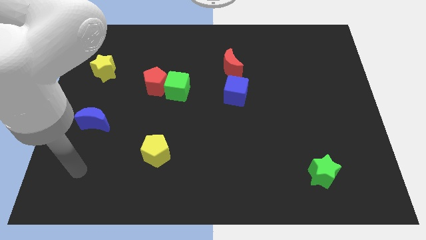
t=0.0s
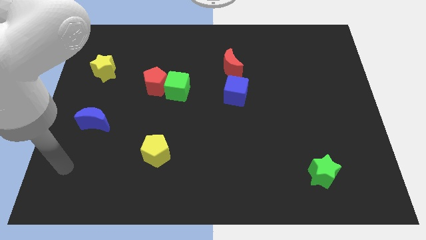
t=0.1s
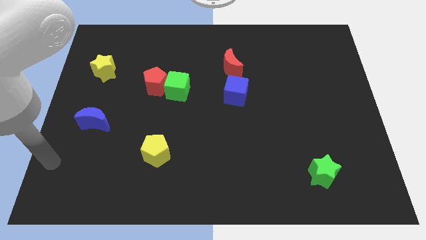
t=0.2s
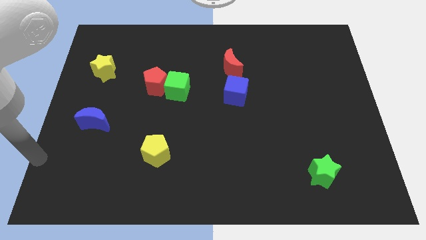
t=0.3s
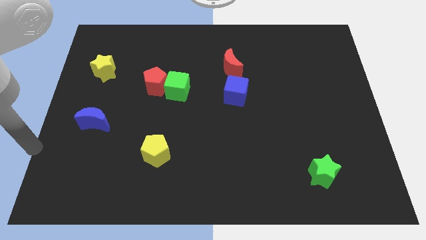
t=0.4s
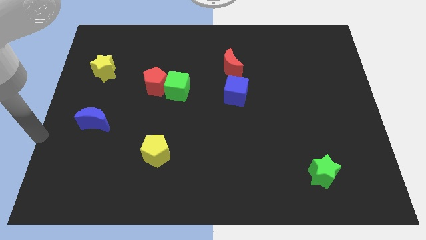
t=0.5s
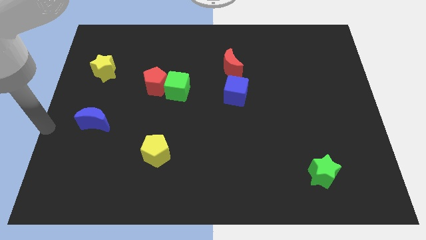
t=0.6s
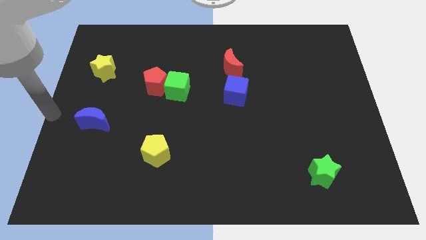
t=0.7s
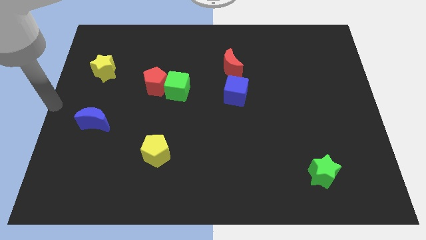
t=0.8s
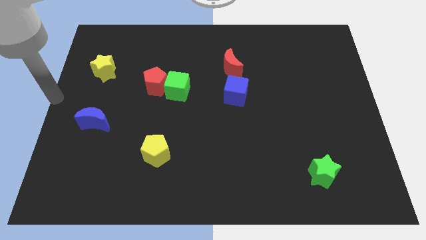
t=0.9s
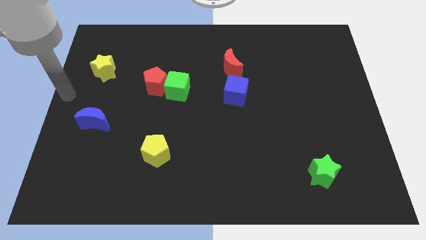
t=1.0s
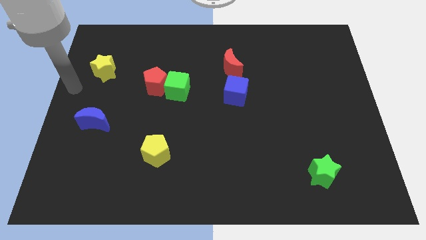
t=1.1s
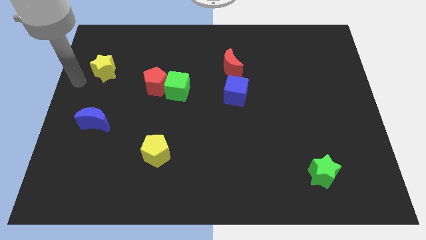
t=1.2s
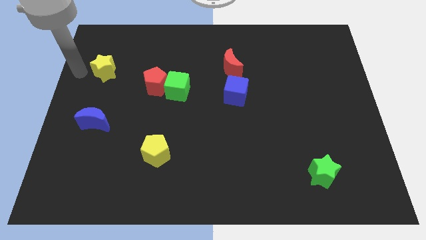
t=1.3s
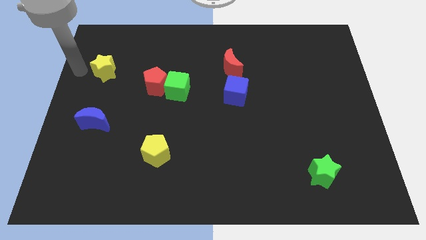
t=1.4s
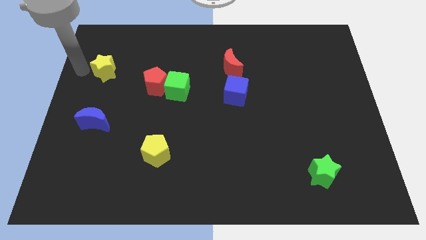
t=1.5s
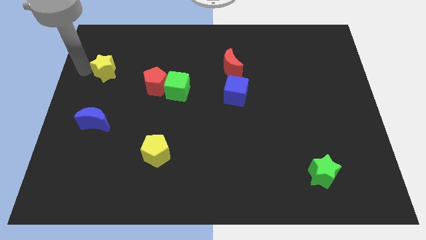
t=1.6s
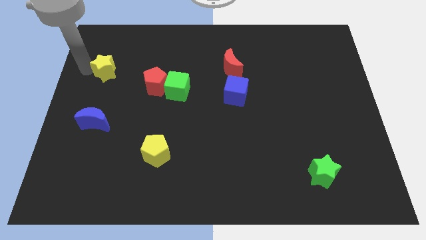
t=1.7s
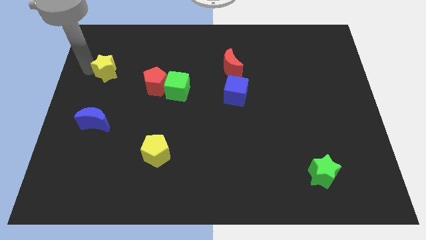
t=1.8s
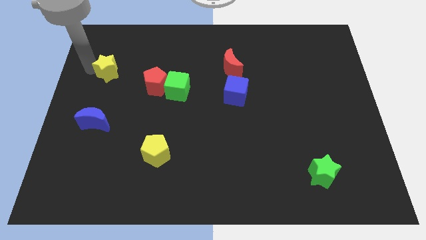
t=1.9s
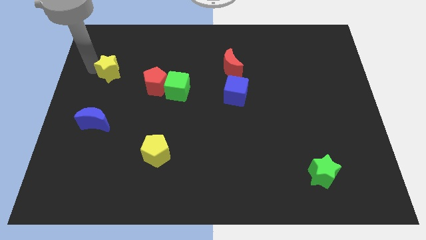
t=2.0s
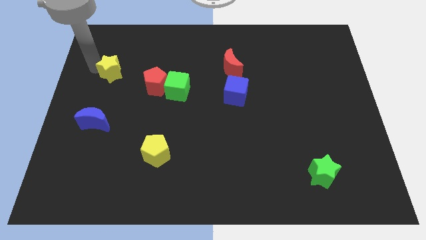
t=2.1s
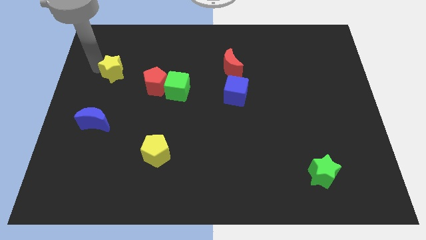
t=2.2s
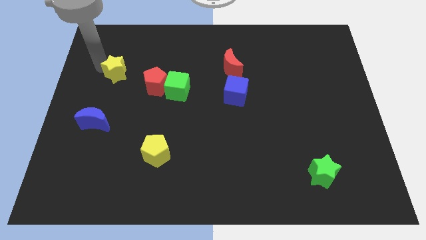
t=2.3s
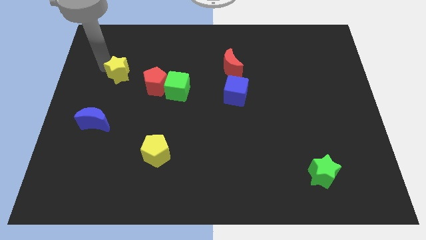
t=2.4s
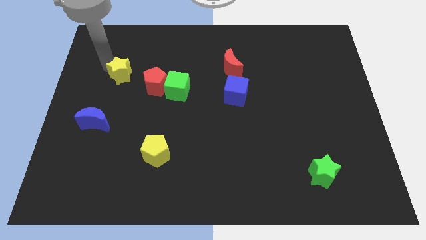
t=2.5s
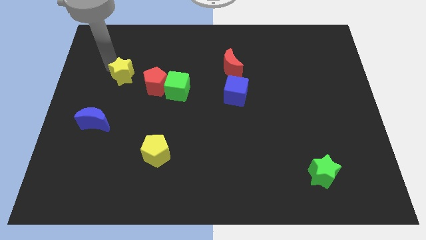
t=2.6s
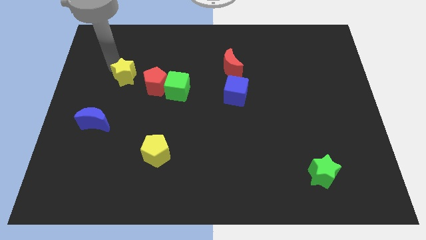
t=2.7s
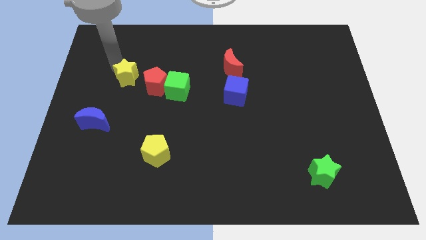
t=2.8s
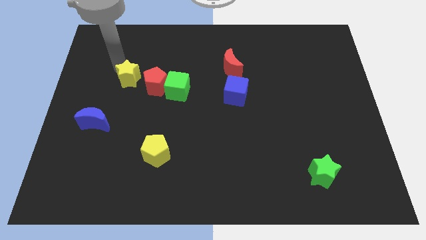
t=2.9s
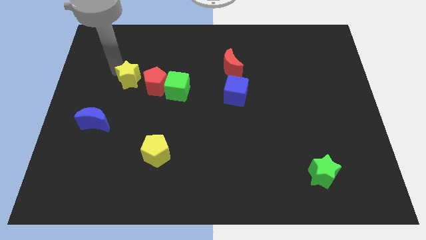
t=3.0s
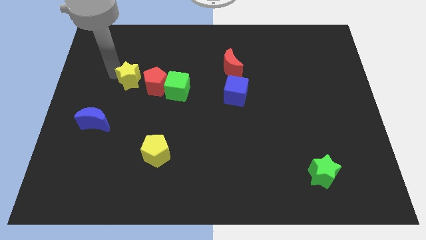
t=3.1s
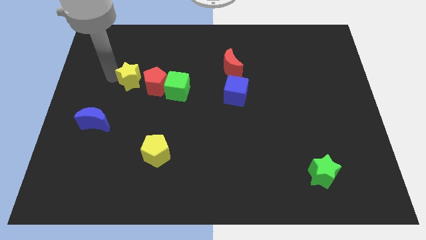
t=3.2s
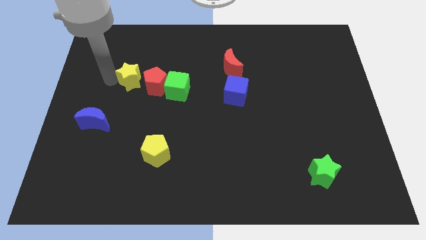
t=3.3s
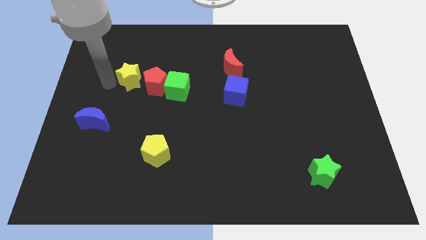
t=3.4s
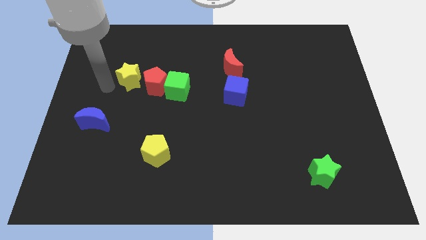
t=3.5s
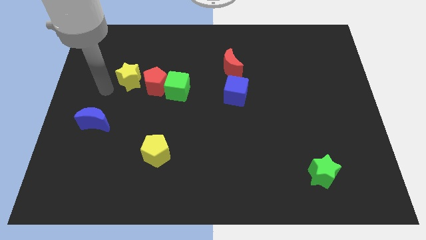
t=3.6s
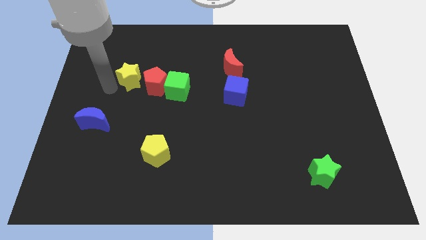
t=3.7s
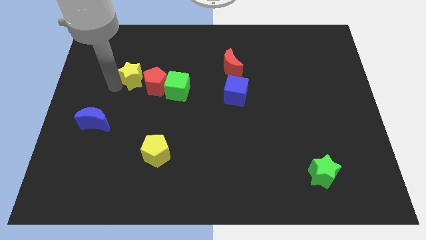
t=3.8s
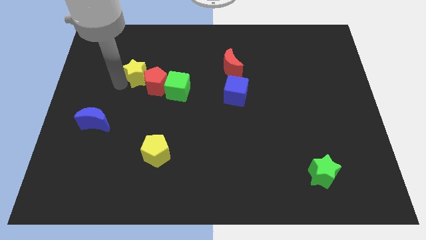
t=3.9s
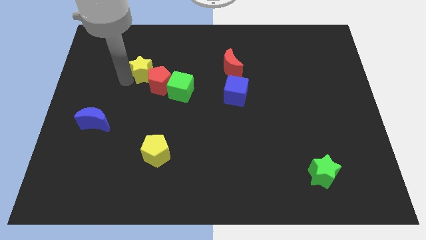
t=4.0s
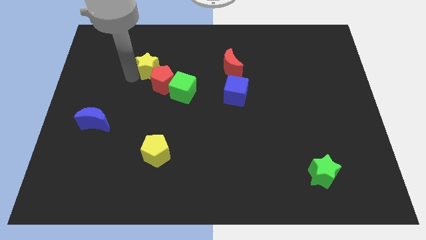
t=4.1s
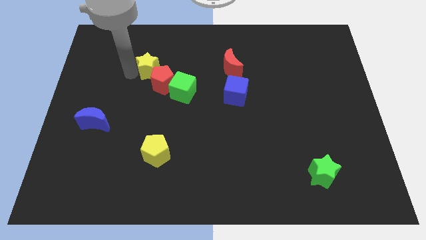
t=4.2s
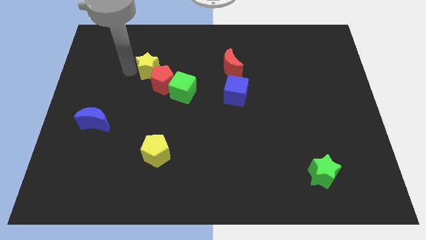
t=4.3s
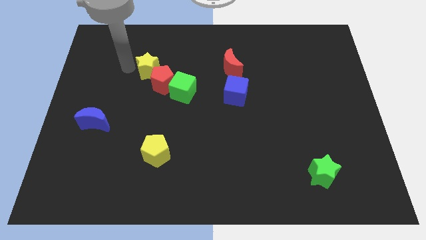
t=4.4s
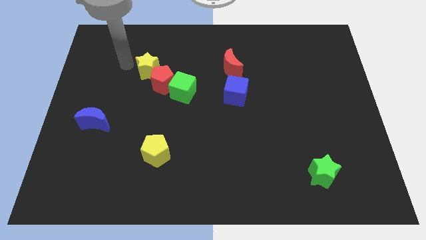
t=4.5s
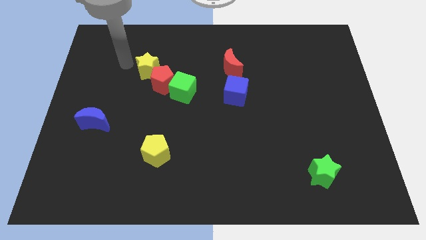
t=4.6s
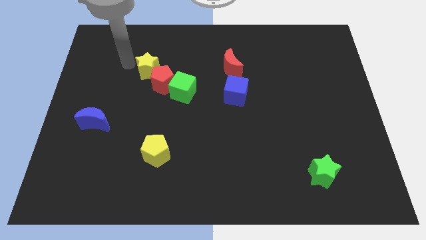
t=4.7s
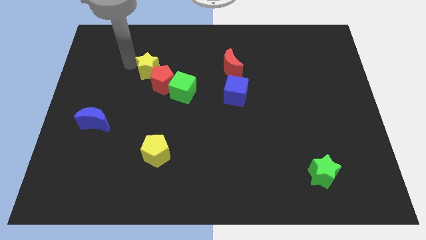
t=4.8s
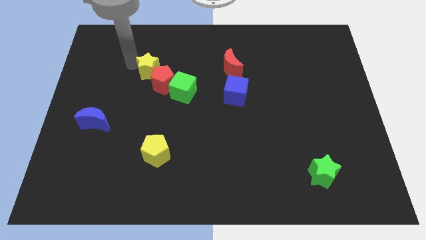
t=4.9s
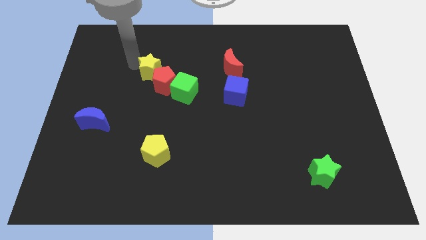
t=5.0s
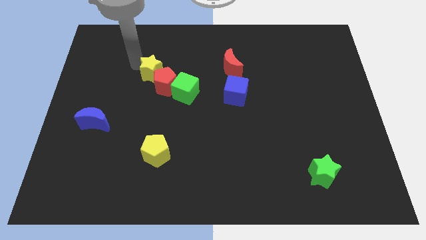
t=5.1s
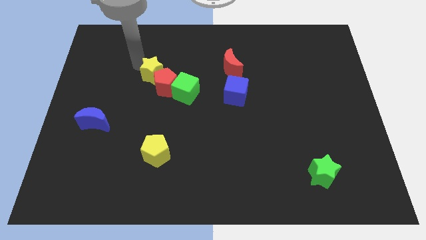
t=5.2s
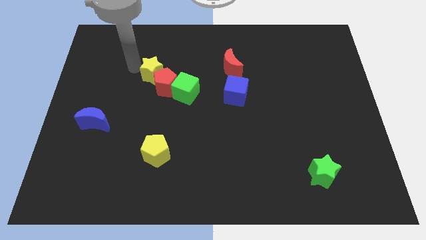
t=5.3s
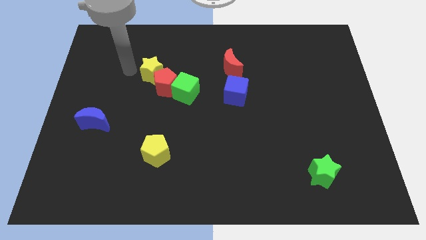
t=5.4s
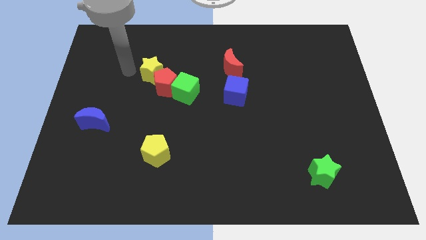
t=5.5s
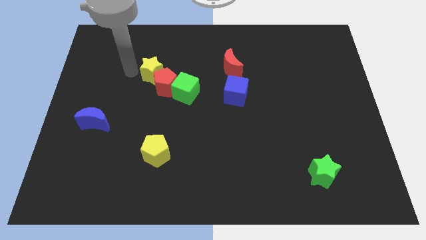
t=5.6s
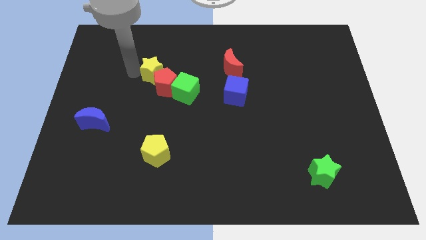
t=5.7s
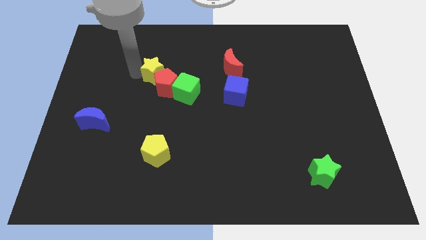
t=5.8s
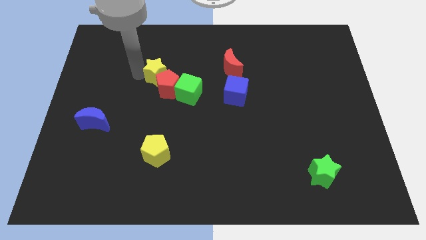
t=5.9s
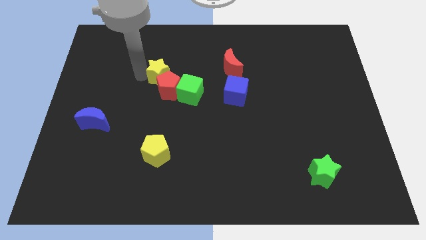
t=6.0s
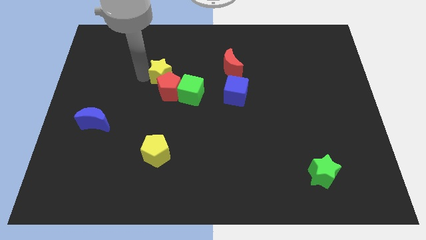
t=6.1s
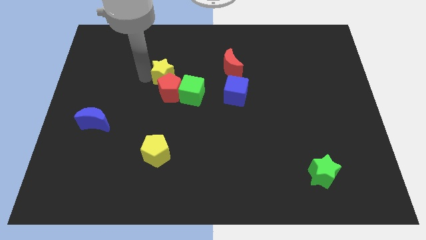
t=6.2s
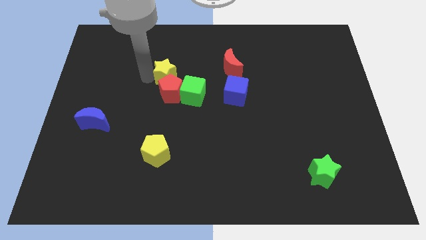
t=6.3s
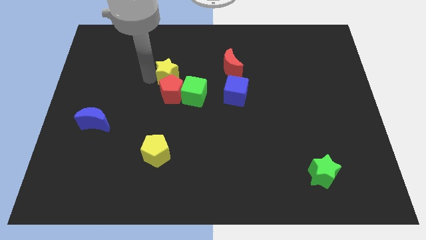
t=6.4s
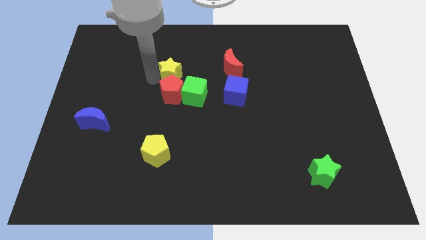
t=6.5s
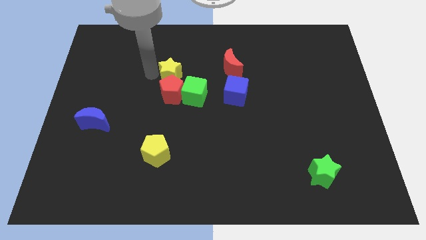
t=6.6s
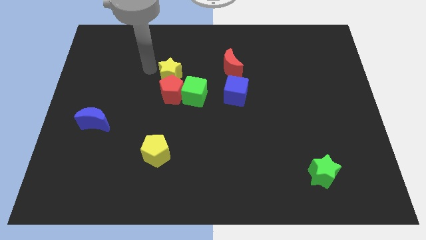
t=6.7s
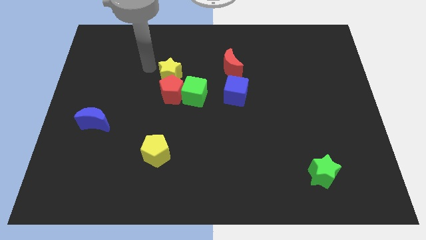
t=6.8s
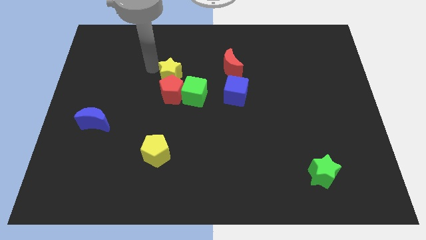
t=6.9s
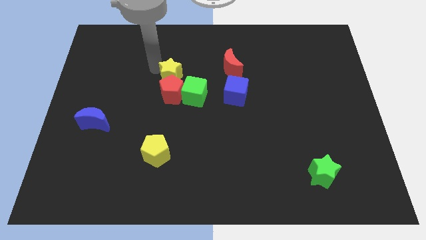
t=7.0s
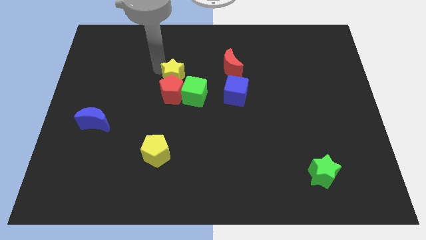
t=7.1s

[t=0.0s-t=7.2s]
move the yellow star to the middle
